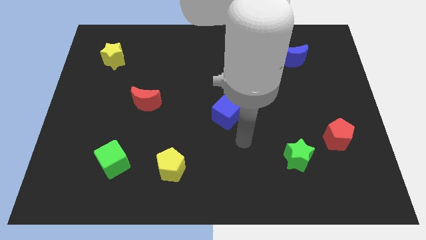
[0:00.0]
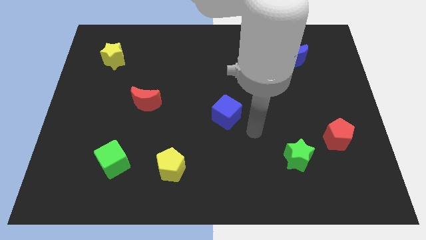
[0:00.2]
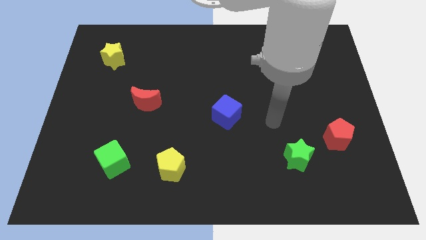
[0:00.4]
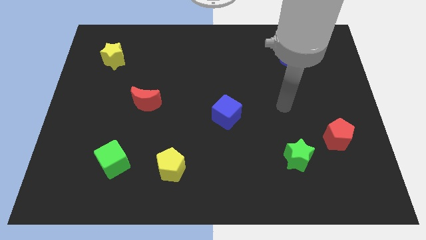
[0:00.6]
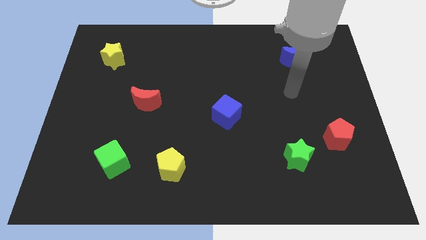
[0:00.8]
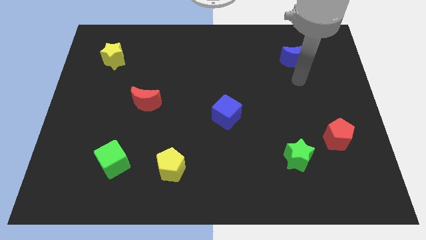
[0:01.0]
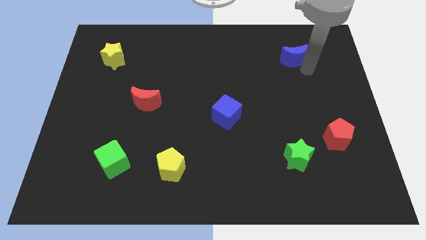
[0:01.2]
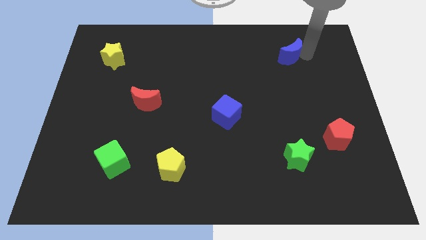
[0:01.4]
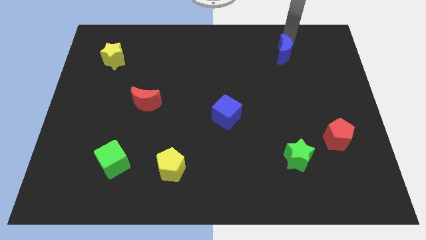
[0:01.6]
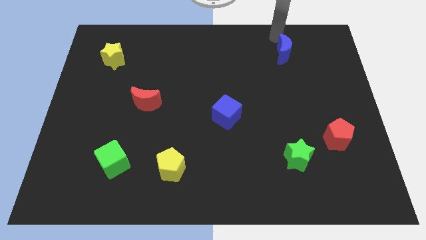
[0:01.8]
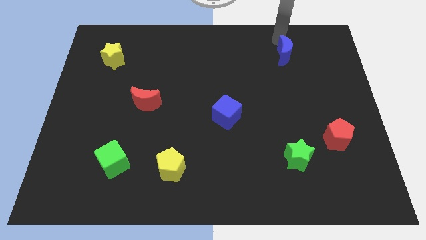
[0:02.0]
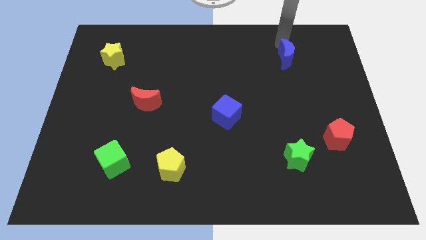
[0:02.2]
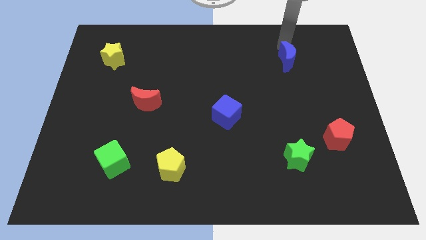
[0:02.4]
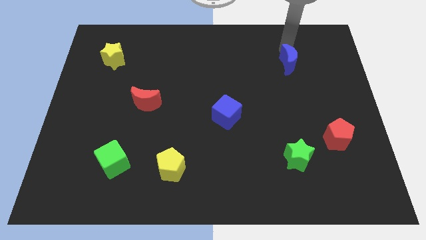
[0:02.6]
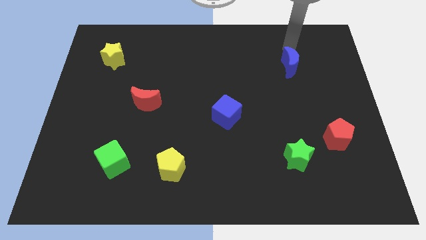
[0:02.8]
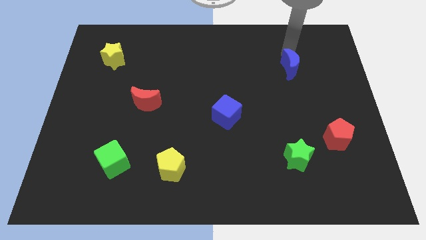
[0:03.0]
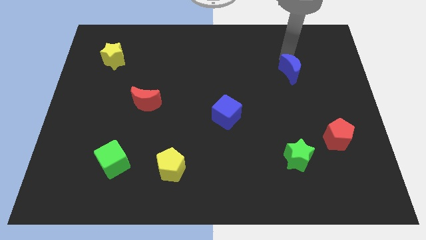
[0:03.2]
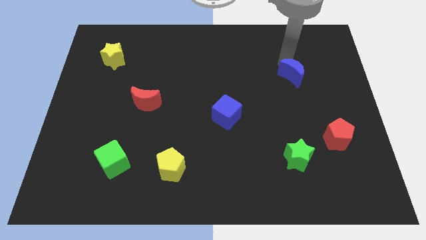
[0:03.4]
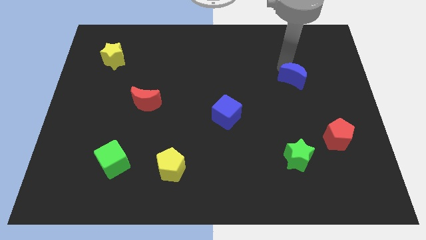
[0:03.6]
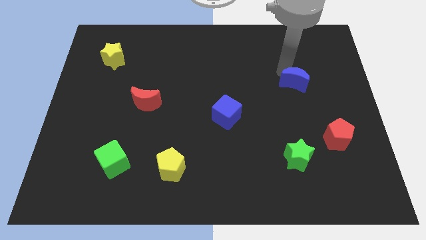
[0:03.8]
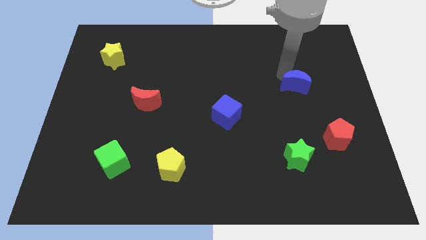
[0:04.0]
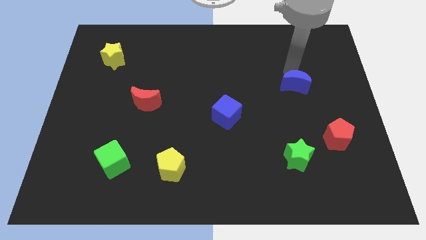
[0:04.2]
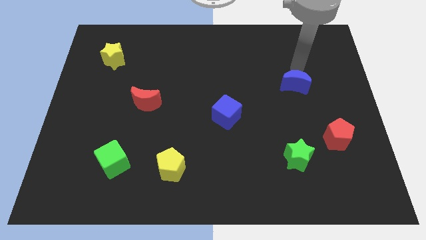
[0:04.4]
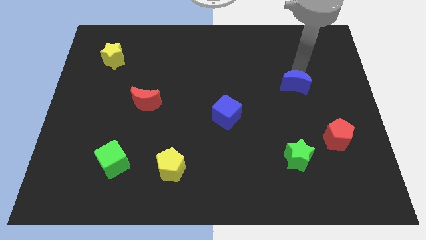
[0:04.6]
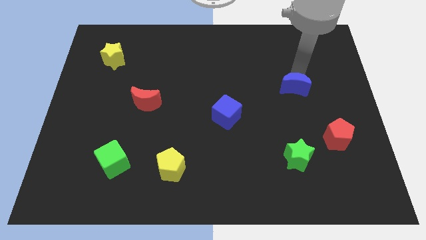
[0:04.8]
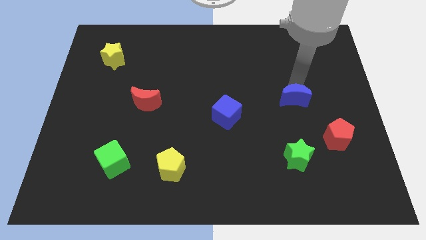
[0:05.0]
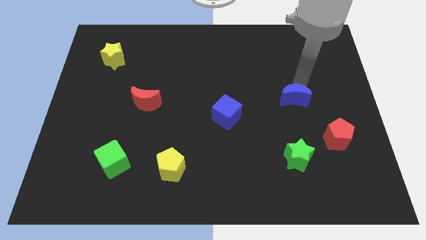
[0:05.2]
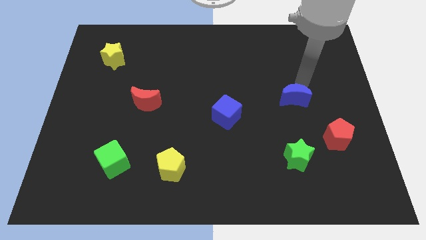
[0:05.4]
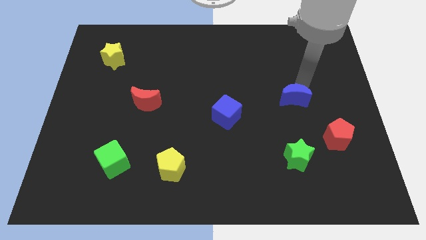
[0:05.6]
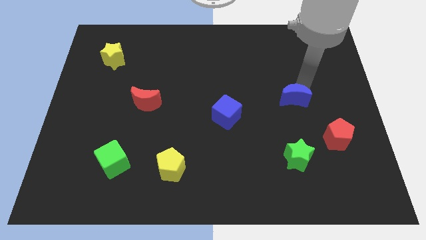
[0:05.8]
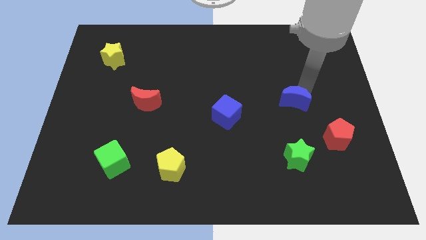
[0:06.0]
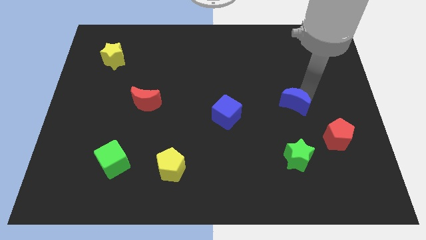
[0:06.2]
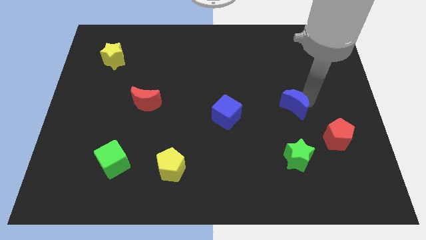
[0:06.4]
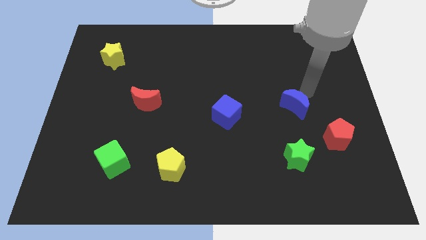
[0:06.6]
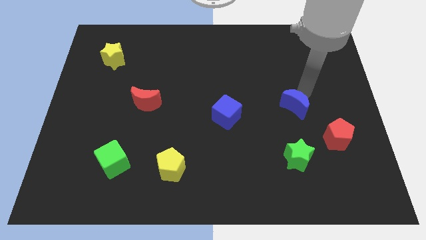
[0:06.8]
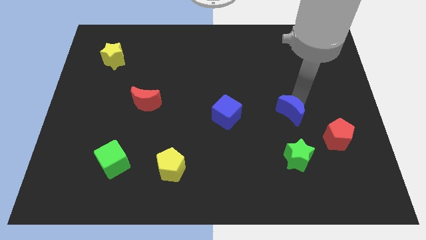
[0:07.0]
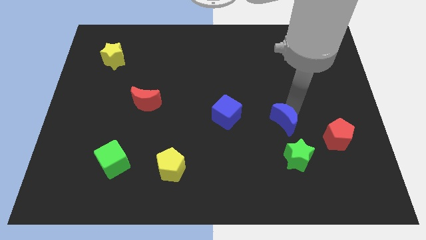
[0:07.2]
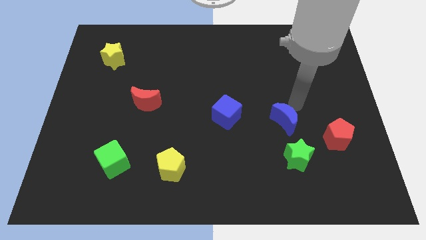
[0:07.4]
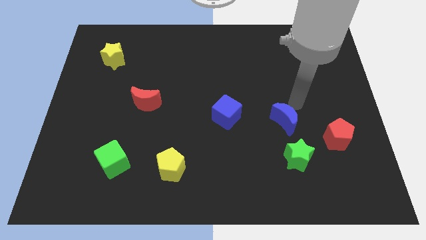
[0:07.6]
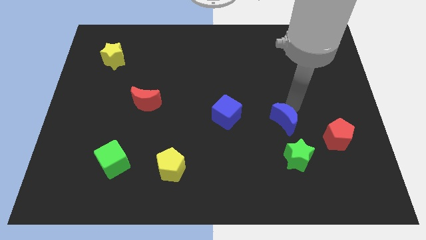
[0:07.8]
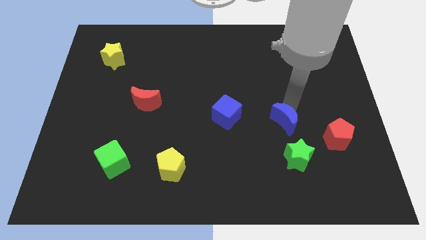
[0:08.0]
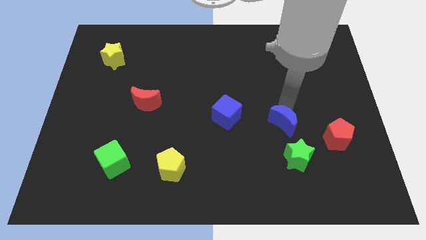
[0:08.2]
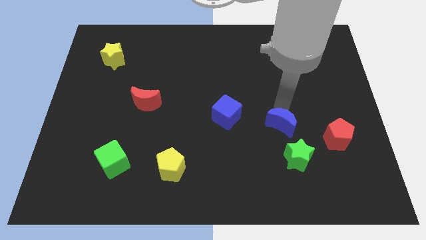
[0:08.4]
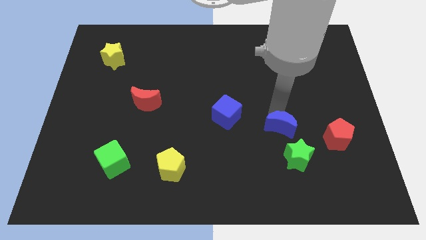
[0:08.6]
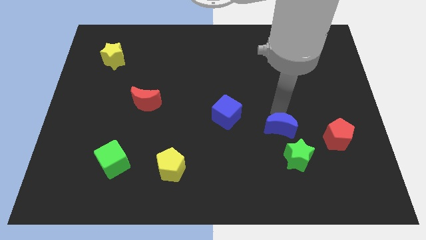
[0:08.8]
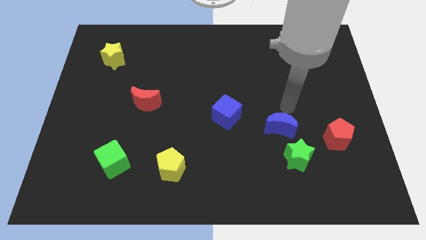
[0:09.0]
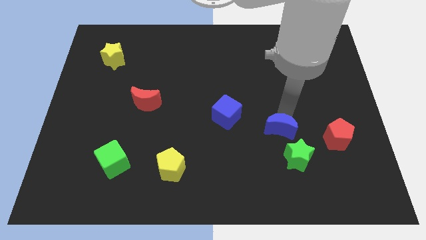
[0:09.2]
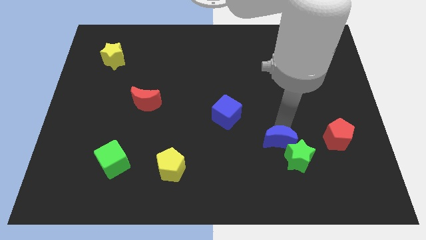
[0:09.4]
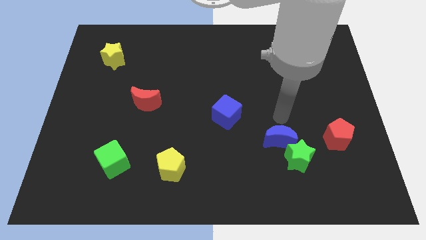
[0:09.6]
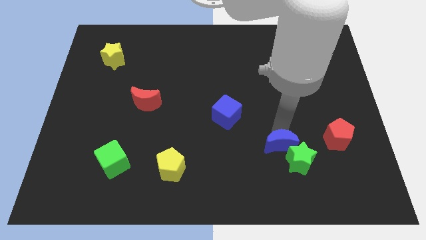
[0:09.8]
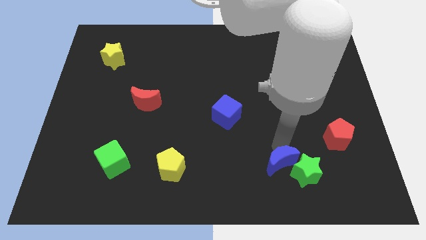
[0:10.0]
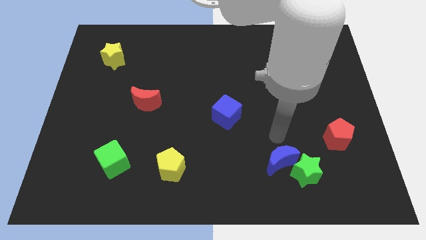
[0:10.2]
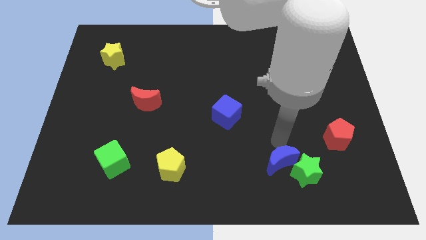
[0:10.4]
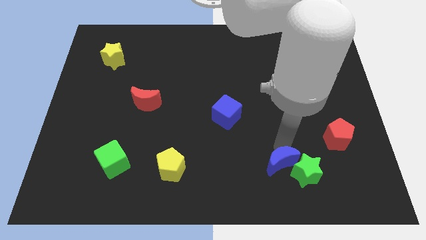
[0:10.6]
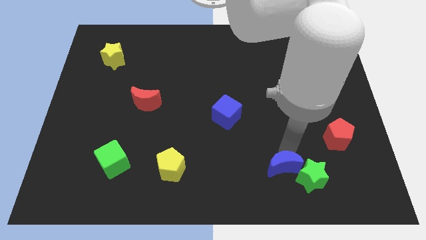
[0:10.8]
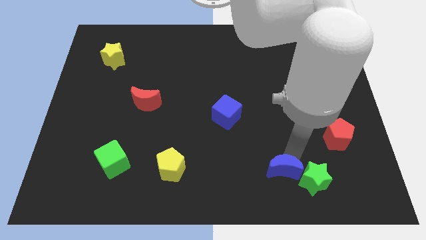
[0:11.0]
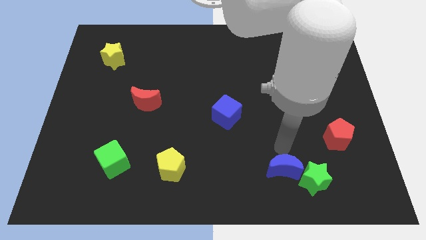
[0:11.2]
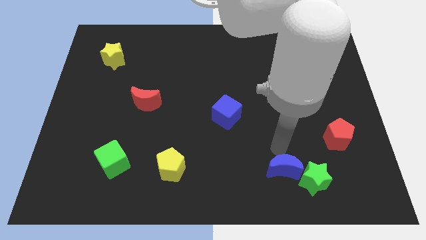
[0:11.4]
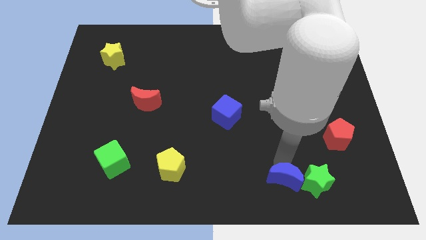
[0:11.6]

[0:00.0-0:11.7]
slide the blue moon to the bottom left of the green star
